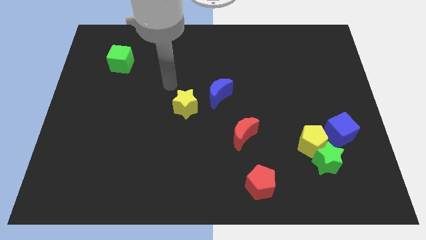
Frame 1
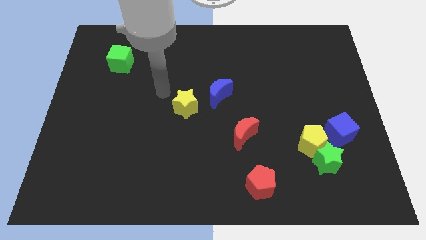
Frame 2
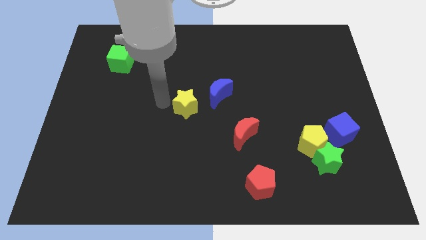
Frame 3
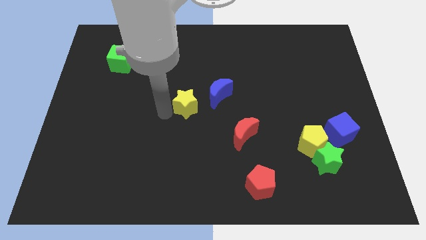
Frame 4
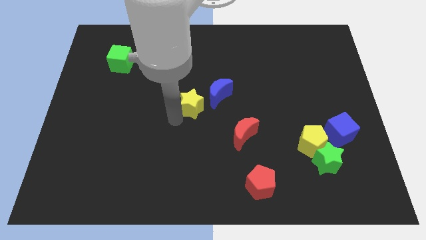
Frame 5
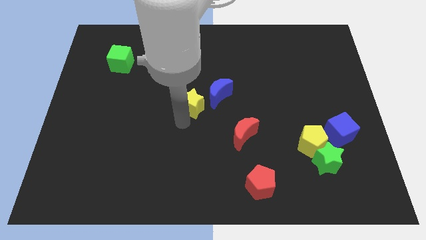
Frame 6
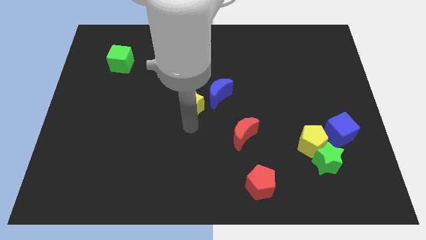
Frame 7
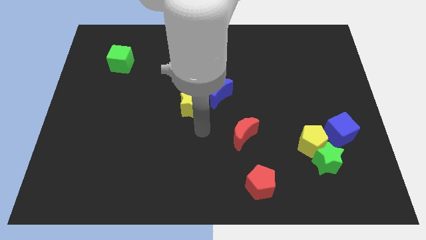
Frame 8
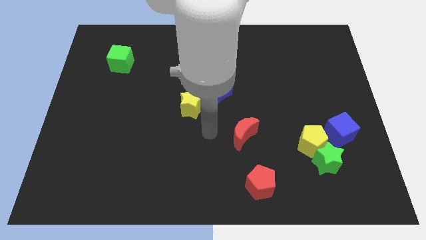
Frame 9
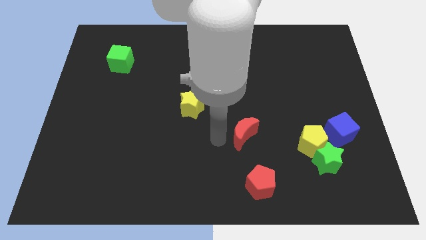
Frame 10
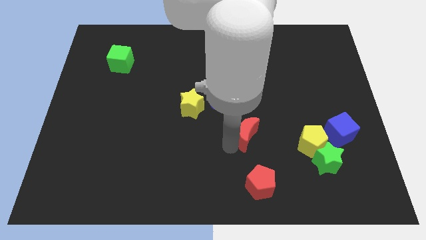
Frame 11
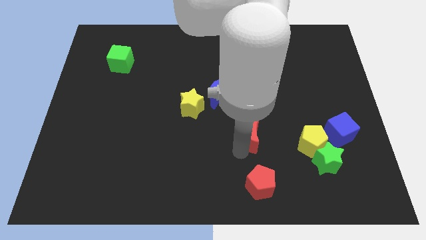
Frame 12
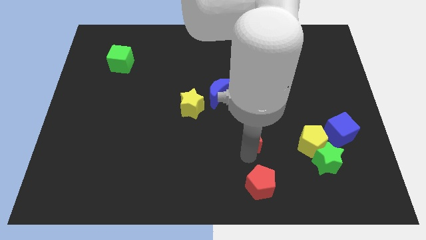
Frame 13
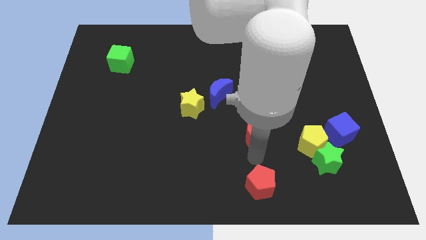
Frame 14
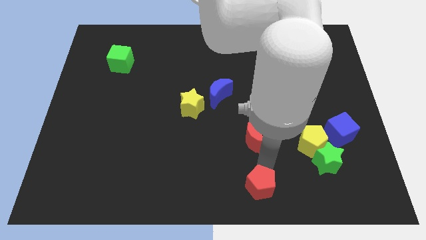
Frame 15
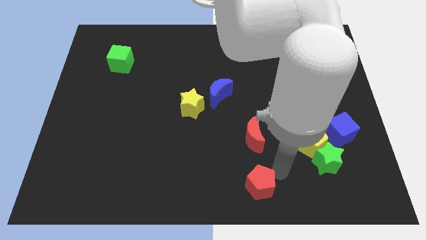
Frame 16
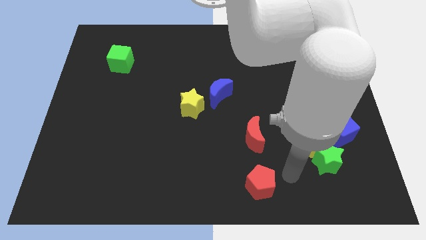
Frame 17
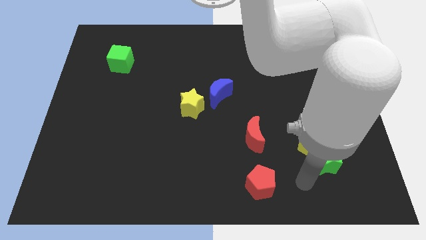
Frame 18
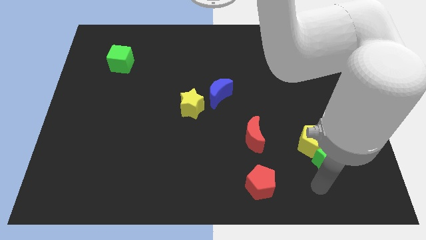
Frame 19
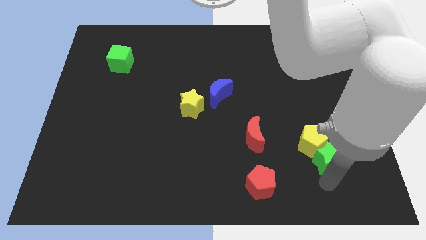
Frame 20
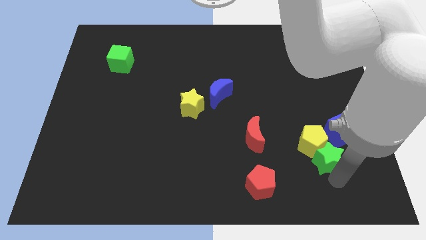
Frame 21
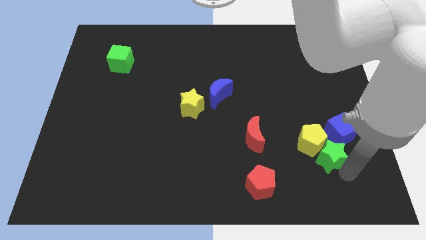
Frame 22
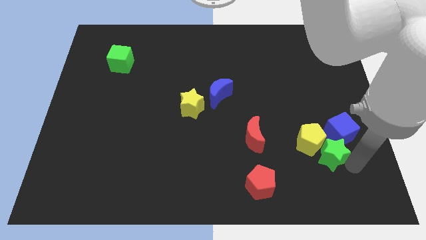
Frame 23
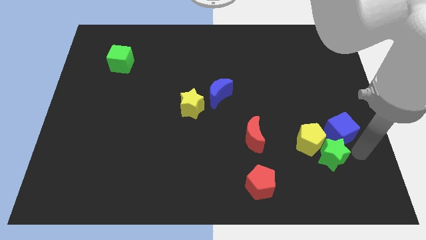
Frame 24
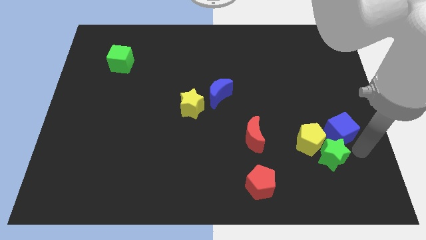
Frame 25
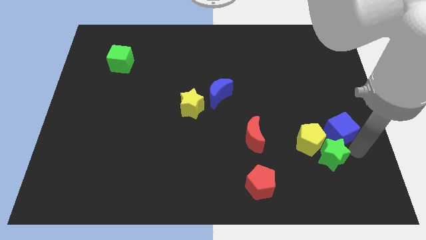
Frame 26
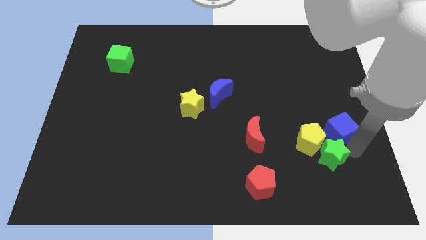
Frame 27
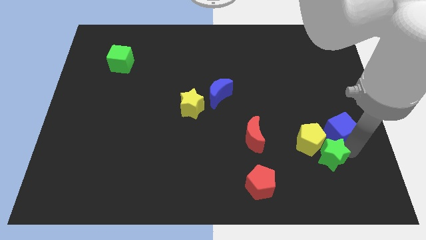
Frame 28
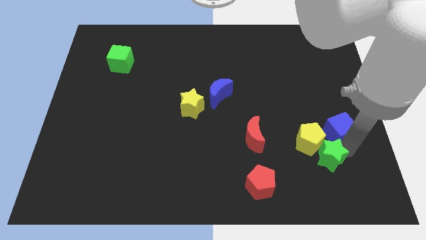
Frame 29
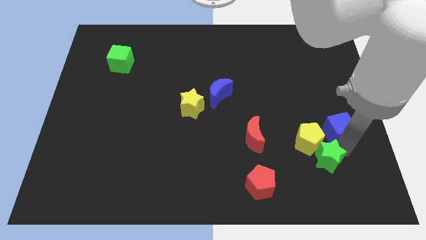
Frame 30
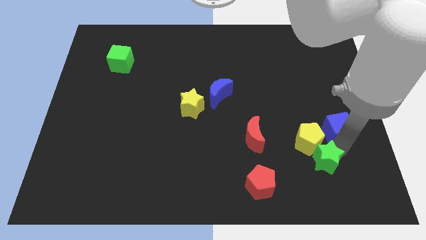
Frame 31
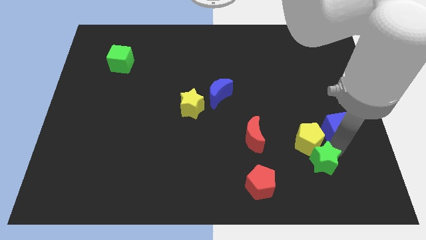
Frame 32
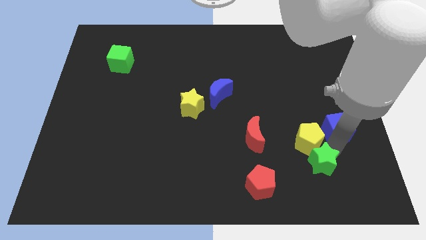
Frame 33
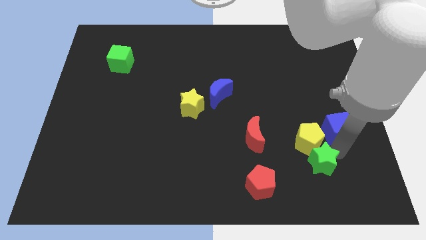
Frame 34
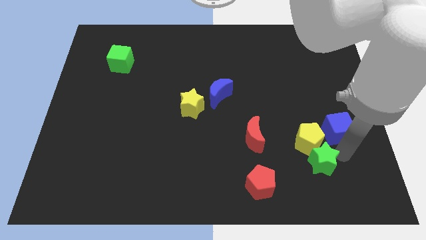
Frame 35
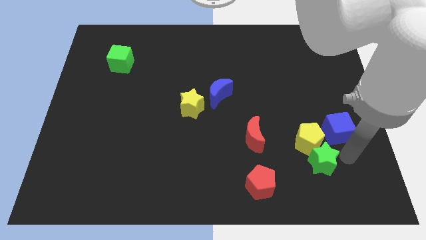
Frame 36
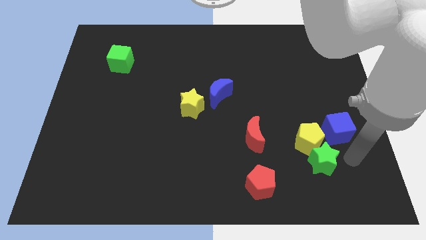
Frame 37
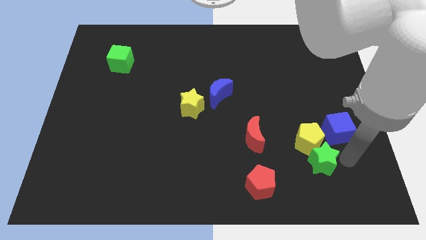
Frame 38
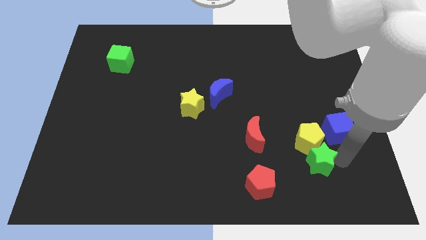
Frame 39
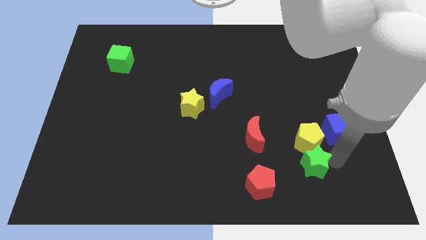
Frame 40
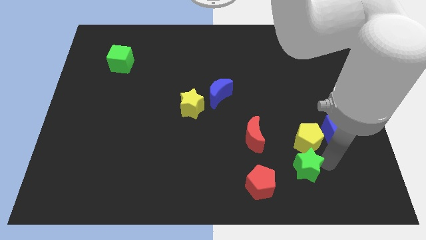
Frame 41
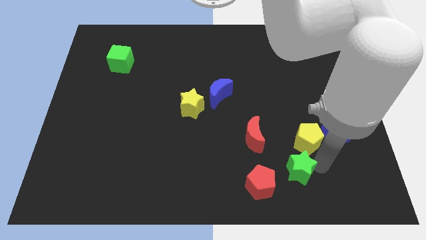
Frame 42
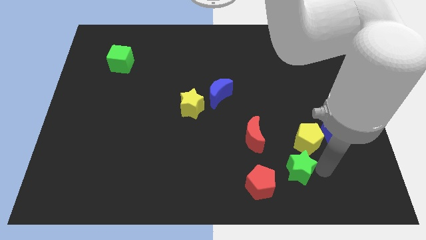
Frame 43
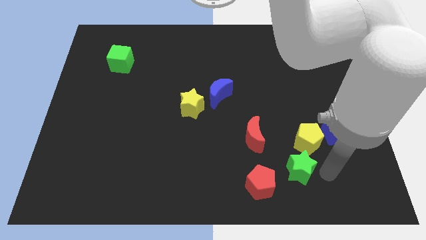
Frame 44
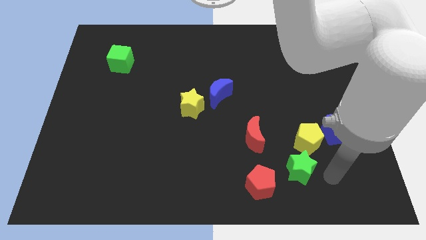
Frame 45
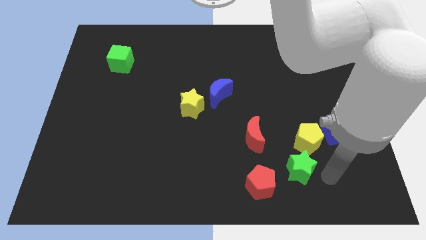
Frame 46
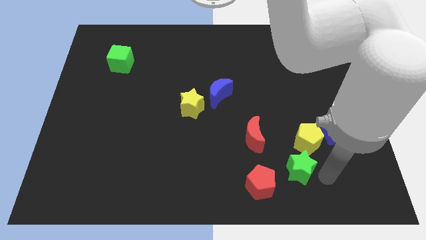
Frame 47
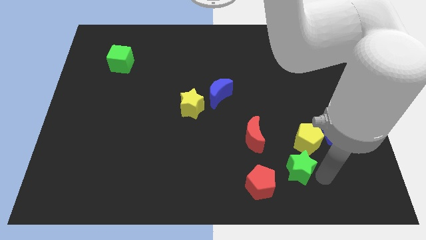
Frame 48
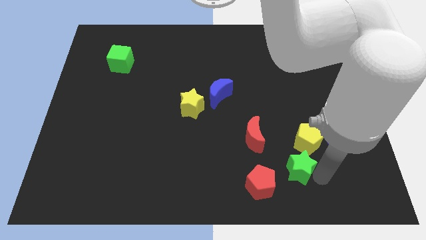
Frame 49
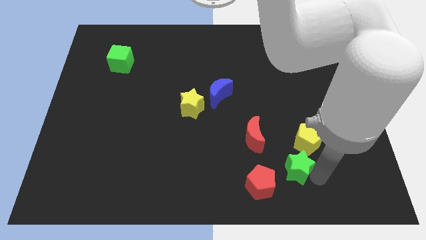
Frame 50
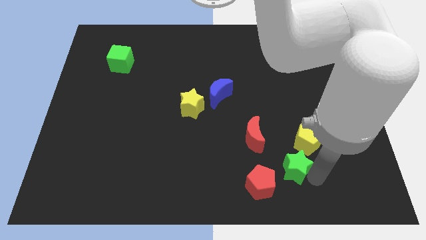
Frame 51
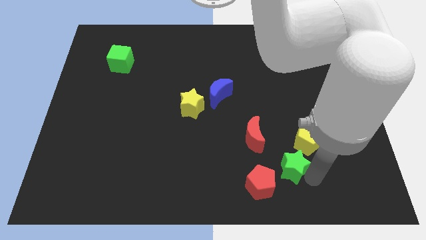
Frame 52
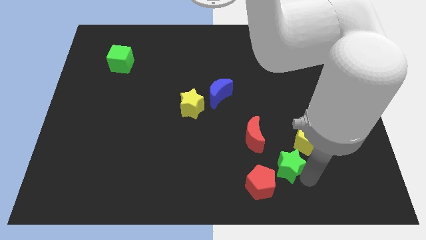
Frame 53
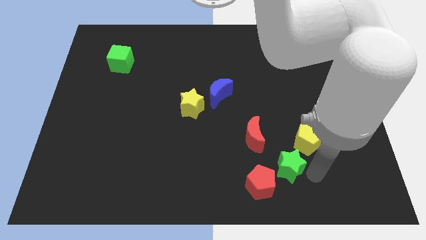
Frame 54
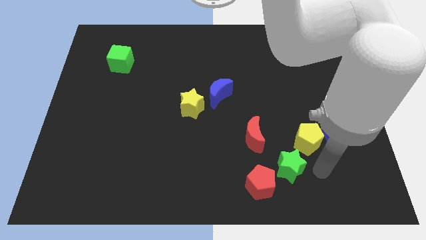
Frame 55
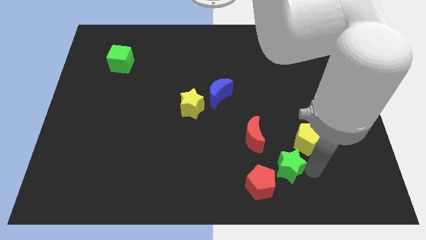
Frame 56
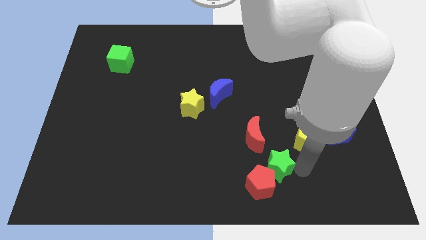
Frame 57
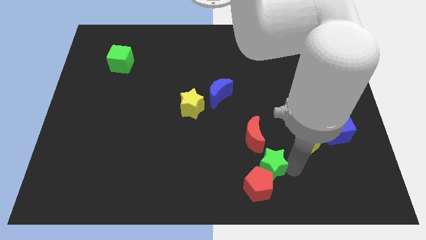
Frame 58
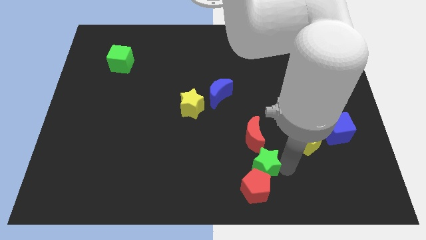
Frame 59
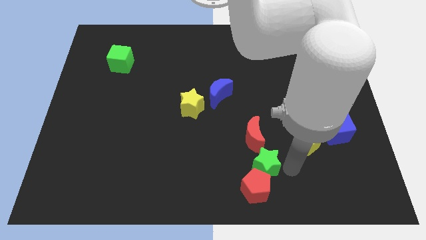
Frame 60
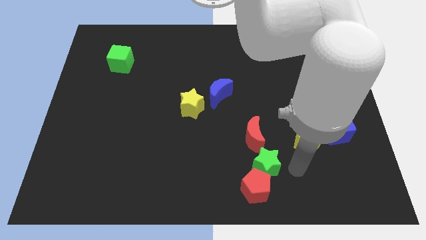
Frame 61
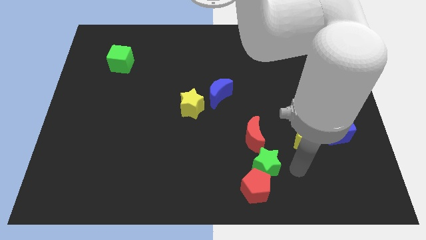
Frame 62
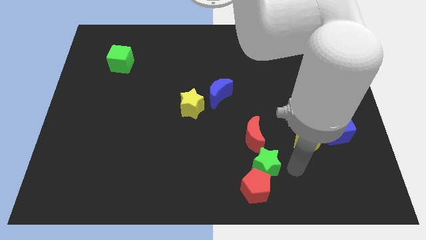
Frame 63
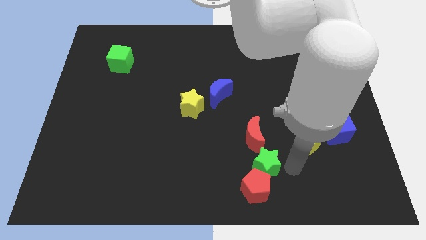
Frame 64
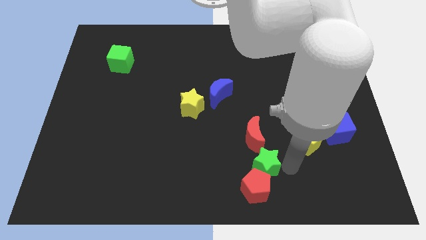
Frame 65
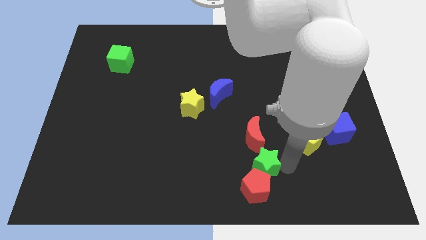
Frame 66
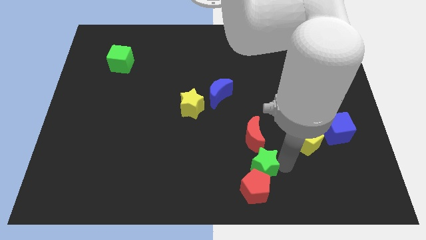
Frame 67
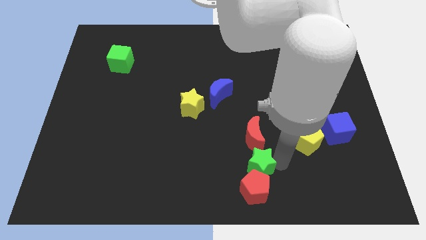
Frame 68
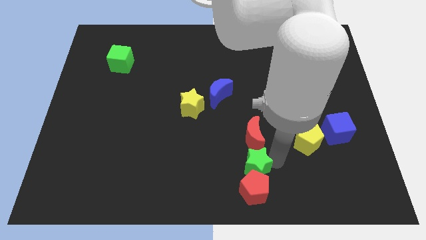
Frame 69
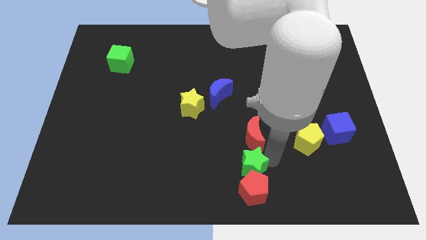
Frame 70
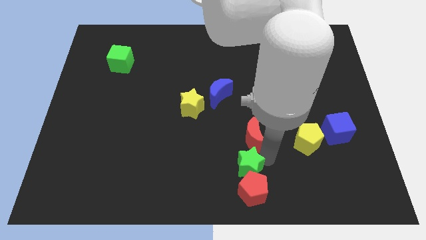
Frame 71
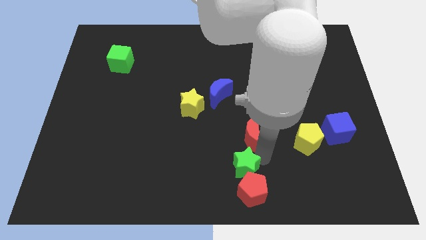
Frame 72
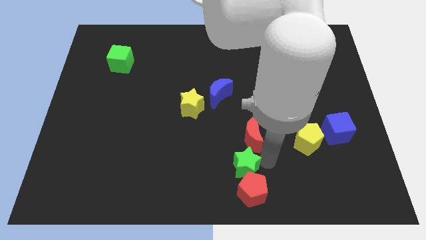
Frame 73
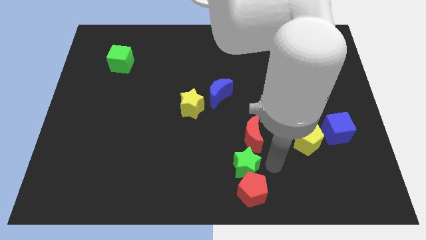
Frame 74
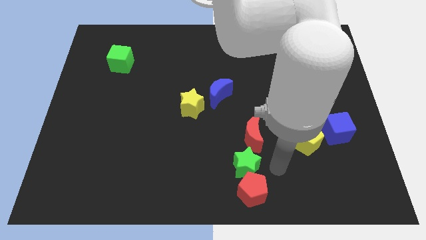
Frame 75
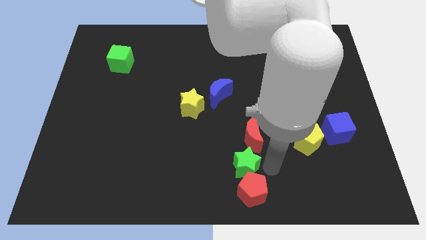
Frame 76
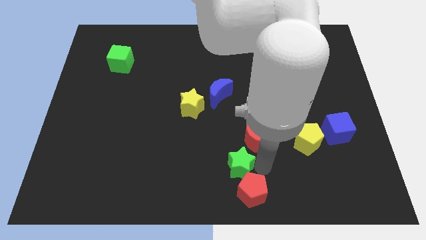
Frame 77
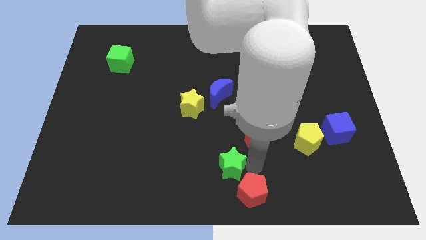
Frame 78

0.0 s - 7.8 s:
push the green star to the left

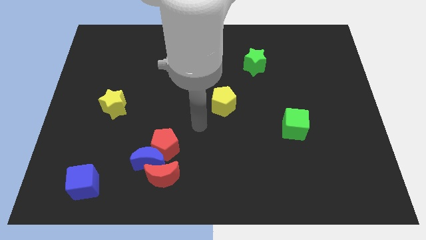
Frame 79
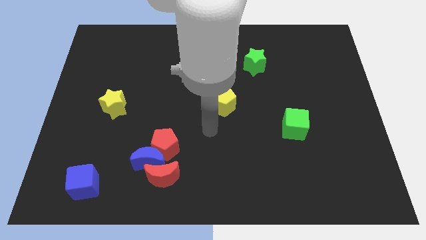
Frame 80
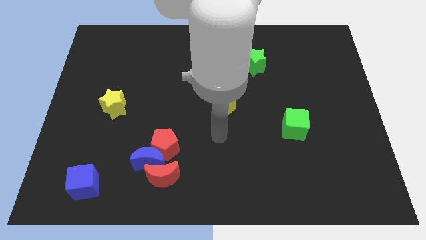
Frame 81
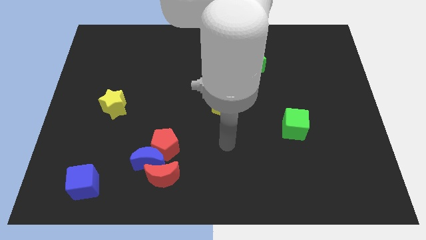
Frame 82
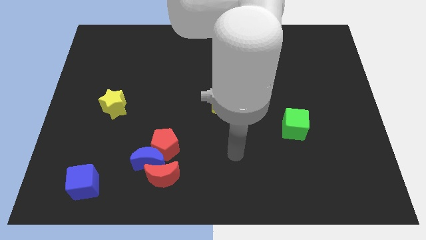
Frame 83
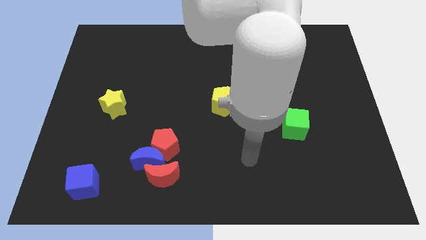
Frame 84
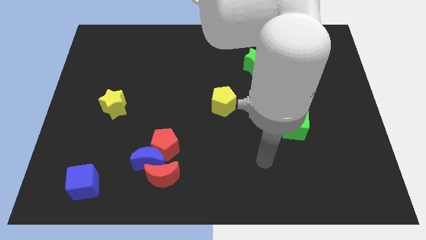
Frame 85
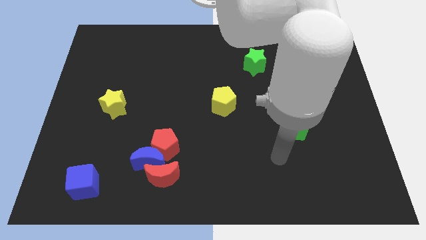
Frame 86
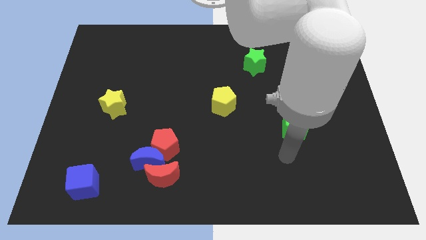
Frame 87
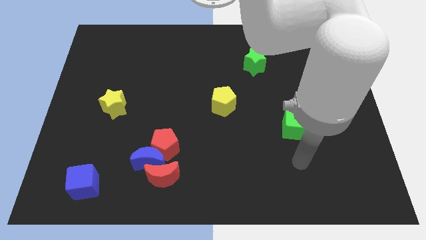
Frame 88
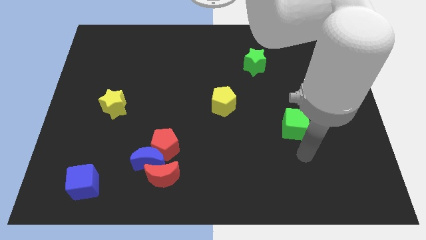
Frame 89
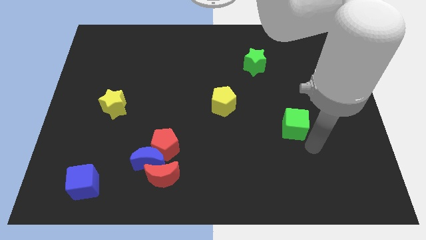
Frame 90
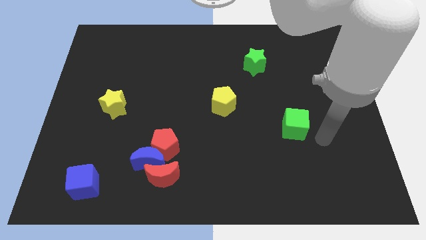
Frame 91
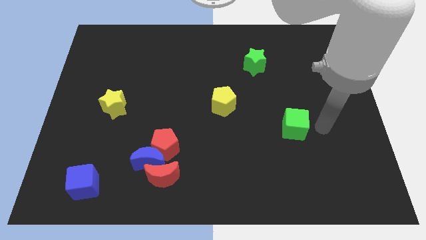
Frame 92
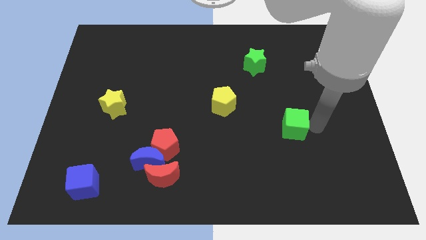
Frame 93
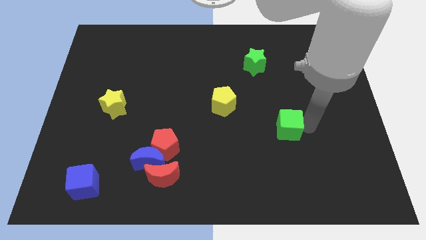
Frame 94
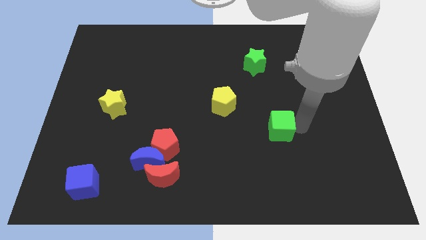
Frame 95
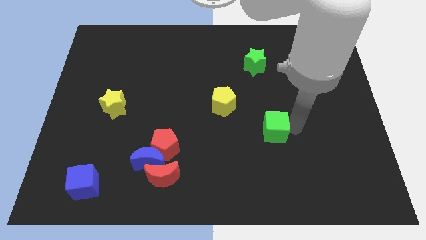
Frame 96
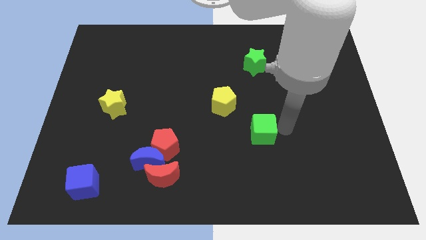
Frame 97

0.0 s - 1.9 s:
push the green cube to the left a little bit
